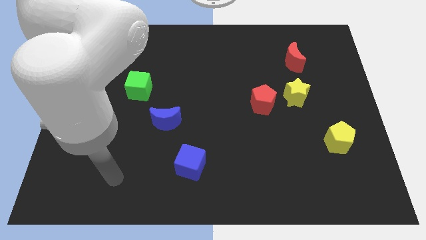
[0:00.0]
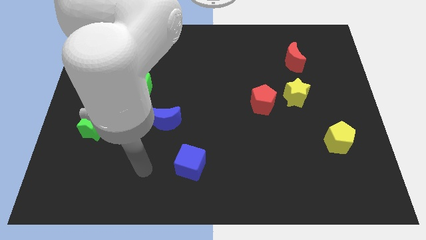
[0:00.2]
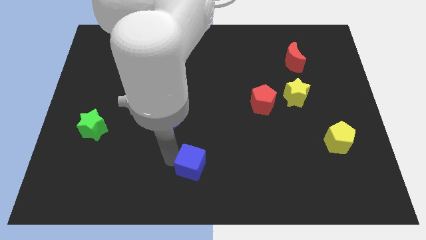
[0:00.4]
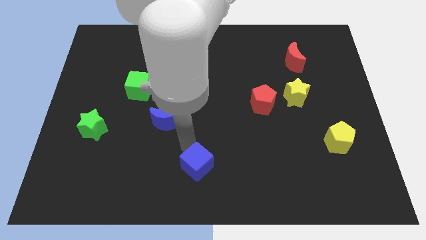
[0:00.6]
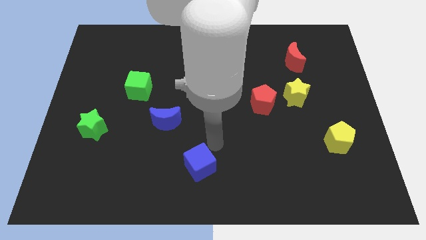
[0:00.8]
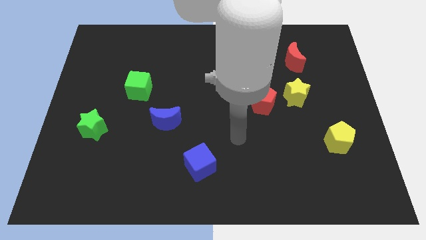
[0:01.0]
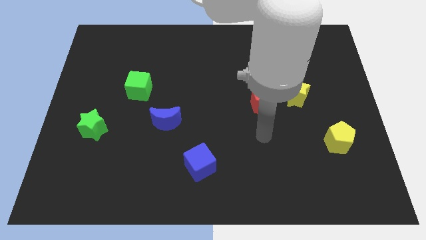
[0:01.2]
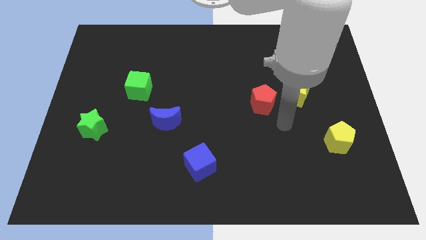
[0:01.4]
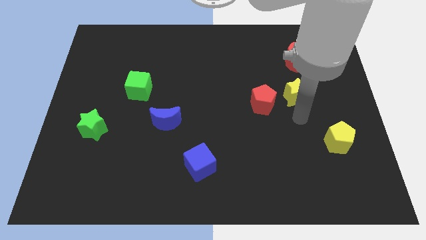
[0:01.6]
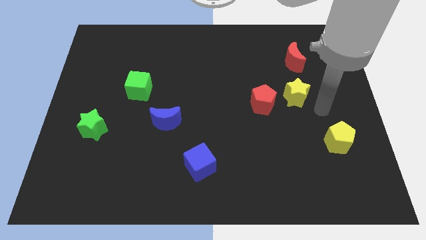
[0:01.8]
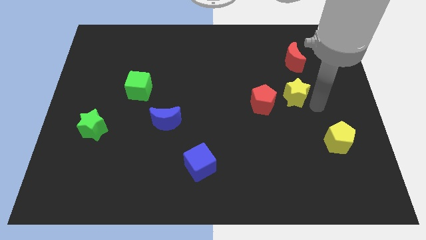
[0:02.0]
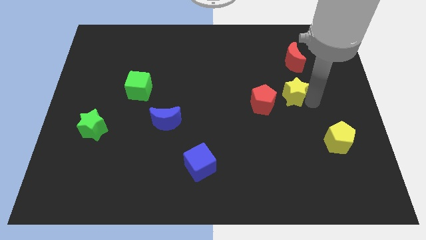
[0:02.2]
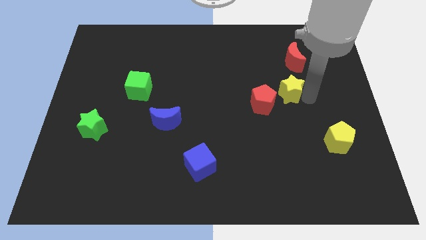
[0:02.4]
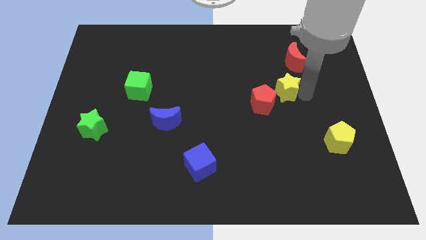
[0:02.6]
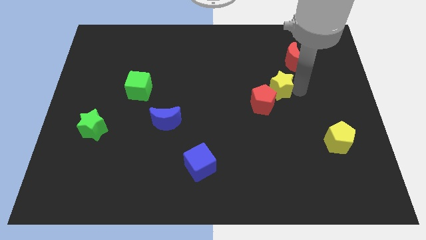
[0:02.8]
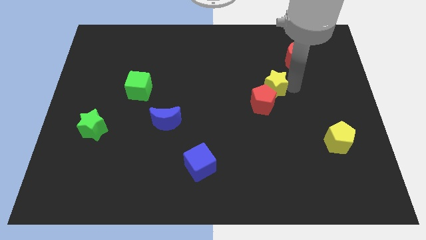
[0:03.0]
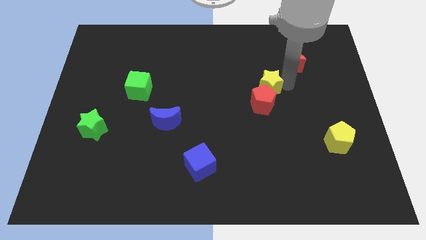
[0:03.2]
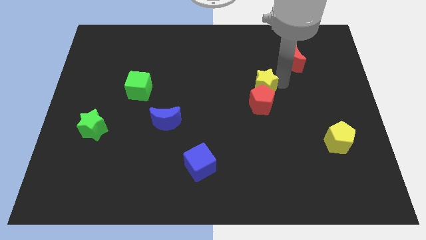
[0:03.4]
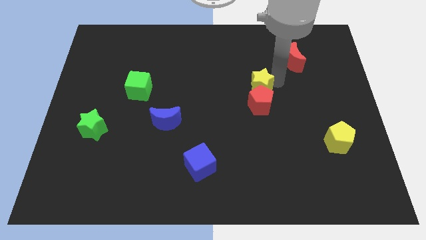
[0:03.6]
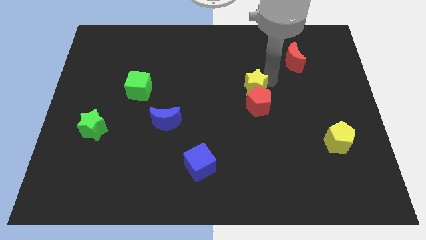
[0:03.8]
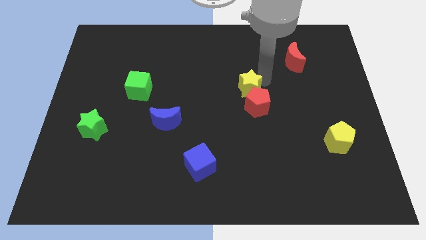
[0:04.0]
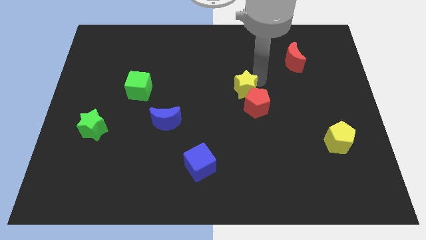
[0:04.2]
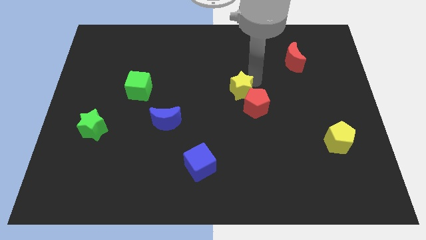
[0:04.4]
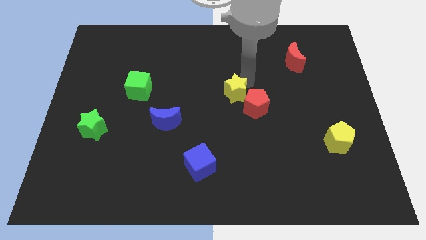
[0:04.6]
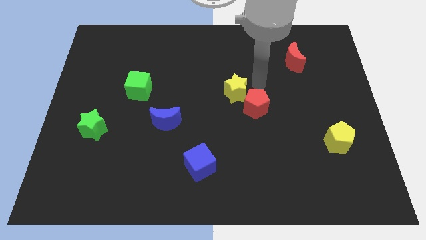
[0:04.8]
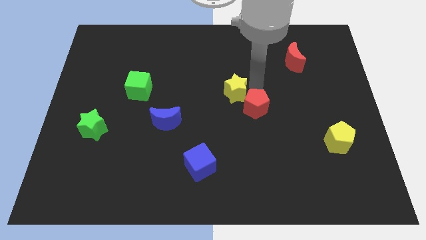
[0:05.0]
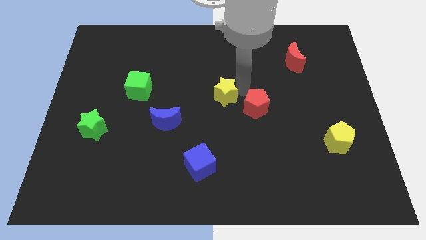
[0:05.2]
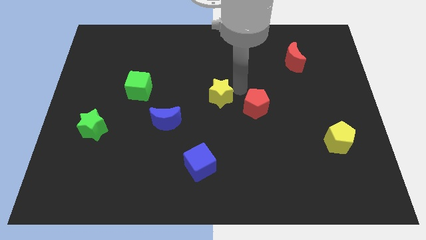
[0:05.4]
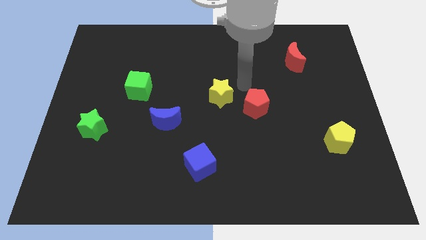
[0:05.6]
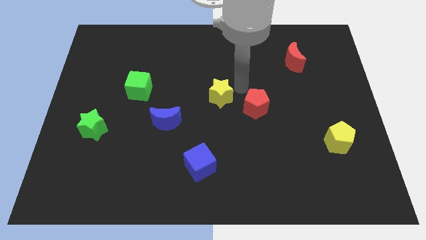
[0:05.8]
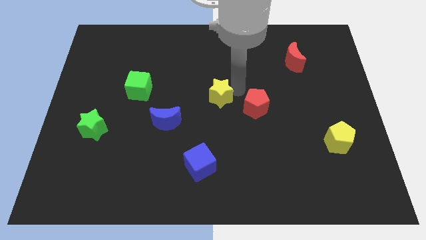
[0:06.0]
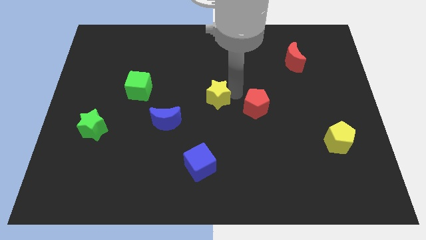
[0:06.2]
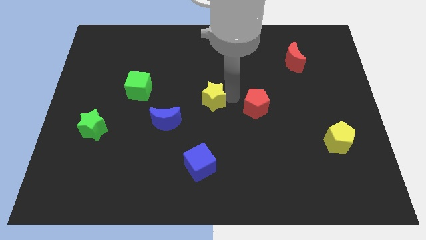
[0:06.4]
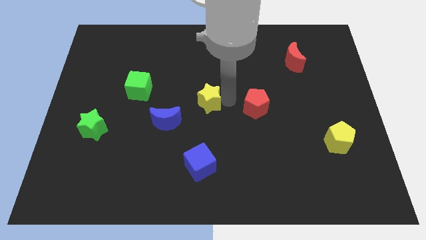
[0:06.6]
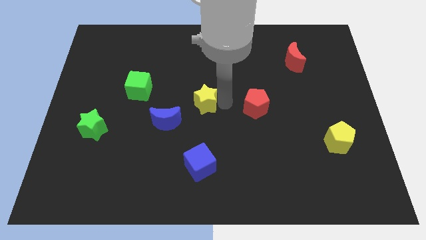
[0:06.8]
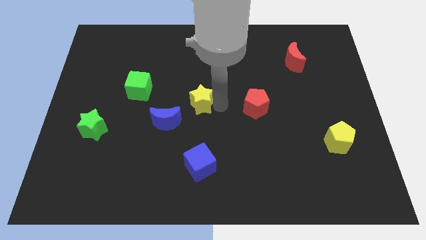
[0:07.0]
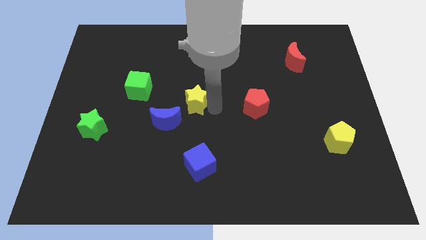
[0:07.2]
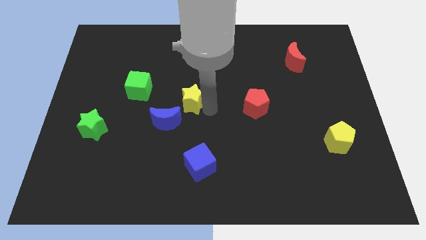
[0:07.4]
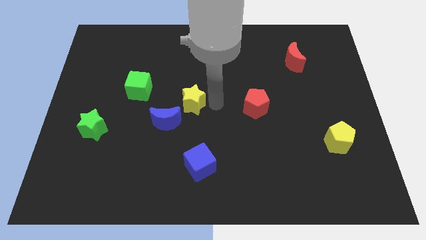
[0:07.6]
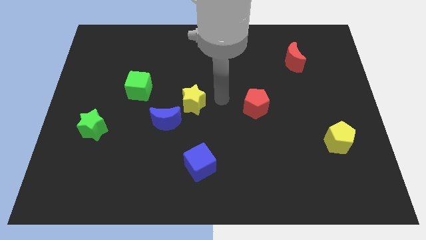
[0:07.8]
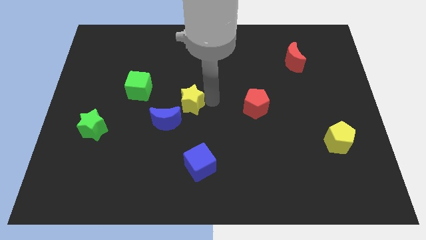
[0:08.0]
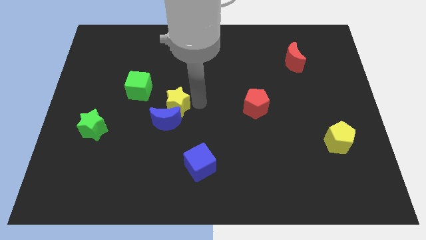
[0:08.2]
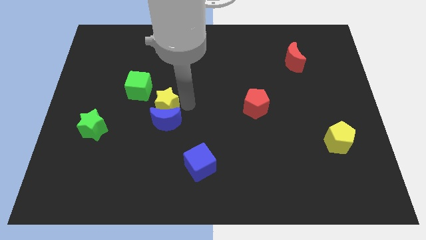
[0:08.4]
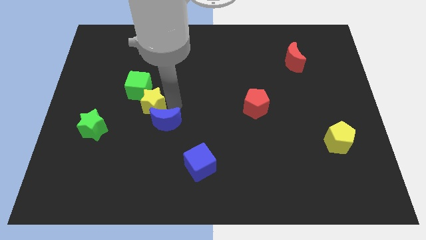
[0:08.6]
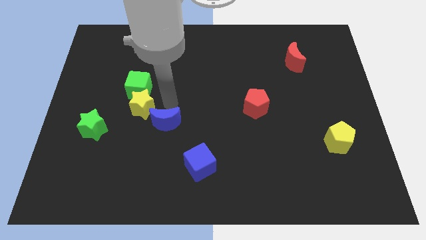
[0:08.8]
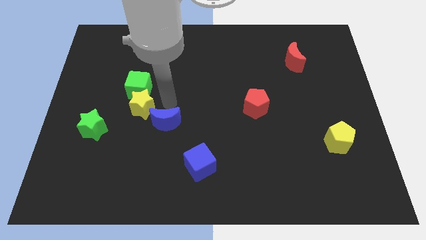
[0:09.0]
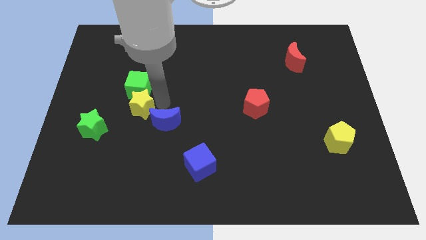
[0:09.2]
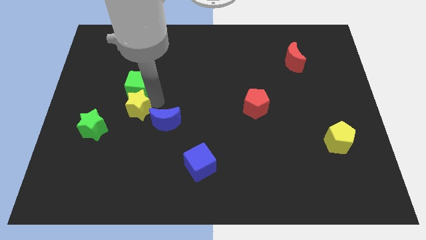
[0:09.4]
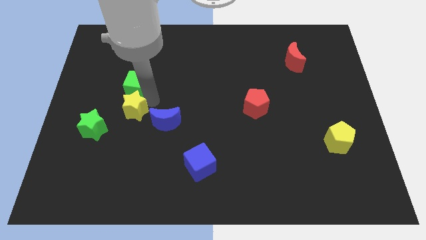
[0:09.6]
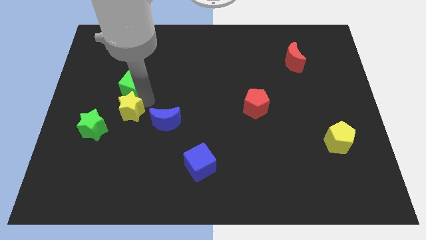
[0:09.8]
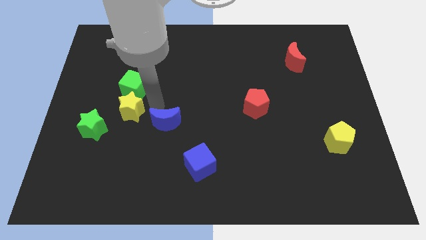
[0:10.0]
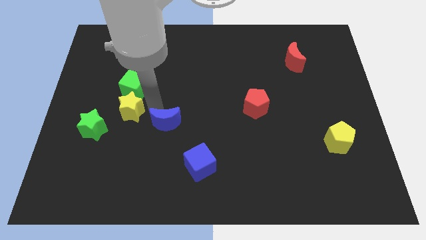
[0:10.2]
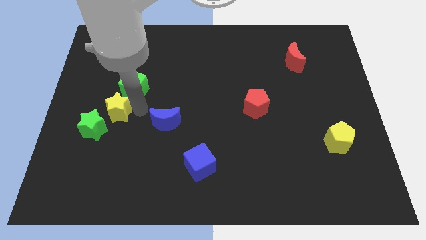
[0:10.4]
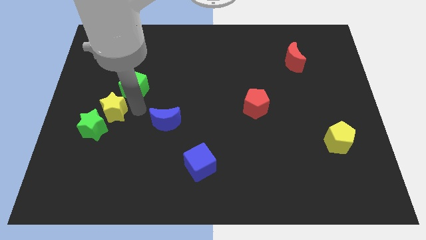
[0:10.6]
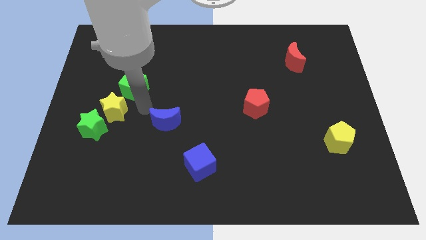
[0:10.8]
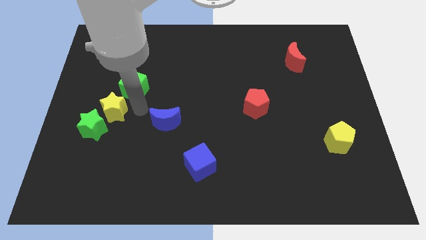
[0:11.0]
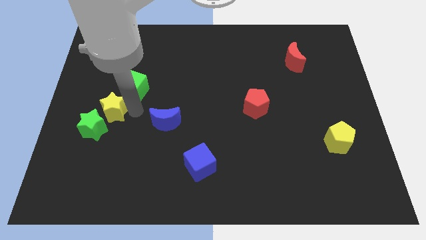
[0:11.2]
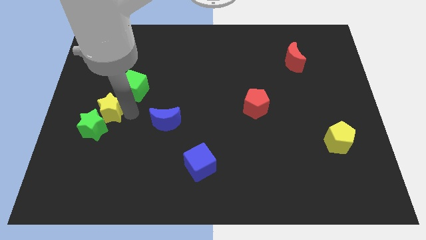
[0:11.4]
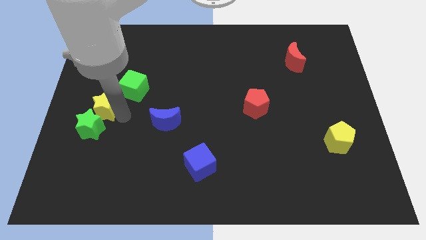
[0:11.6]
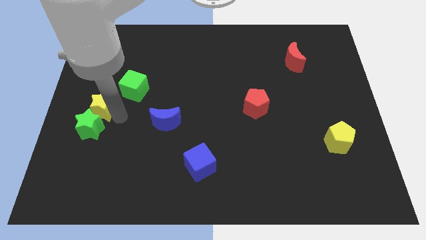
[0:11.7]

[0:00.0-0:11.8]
move the yellow star to the left side

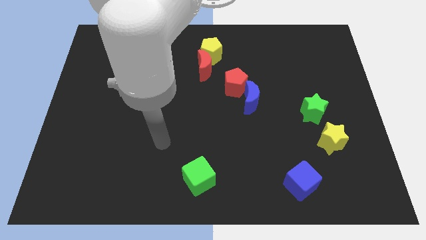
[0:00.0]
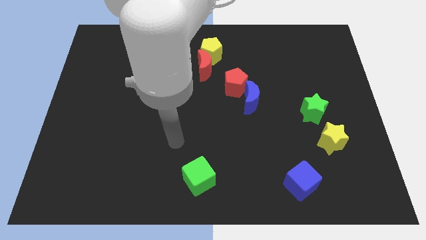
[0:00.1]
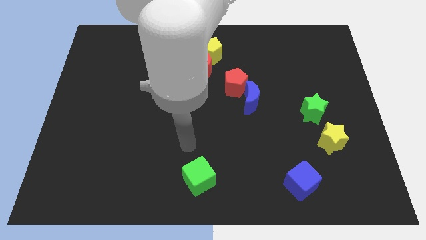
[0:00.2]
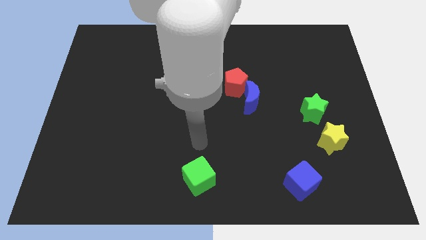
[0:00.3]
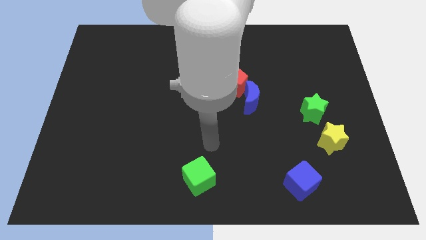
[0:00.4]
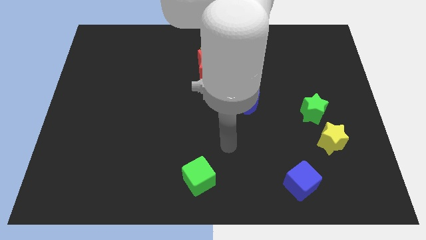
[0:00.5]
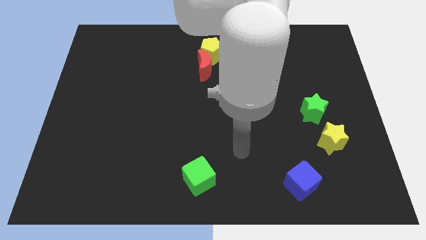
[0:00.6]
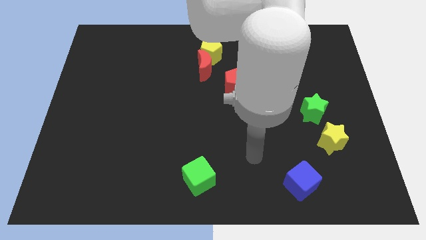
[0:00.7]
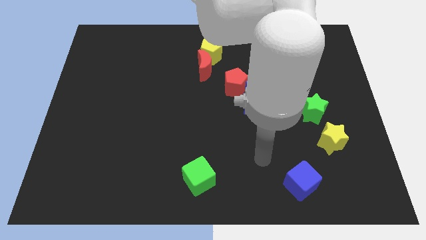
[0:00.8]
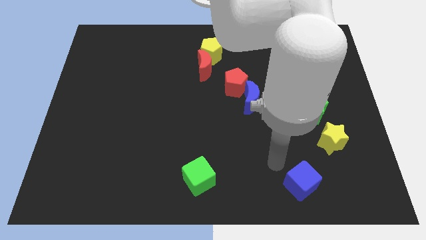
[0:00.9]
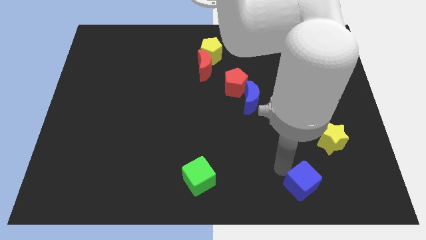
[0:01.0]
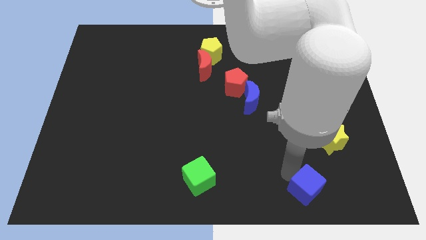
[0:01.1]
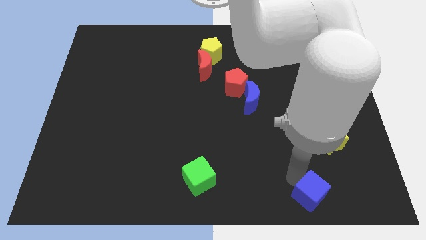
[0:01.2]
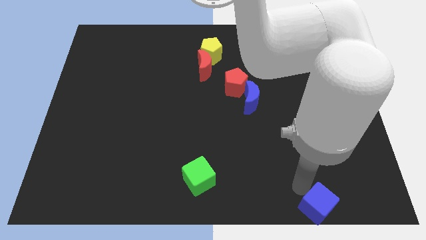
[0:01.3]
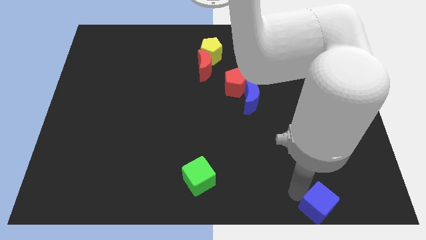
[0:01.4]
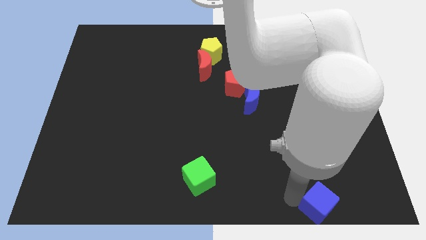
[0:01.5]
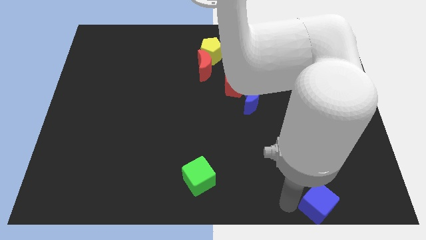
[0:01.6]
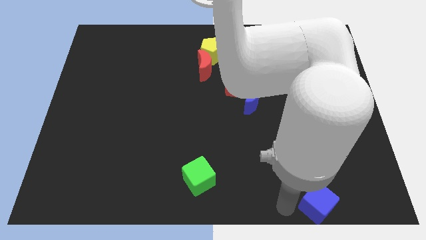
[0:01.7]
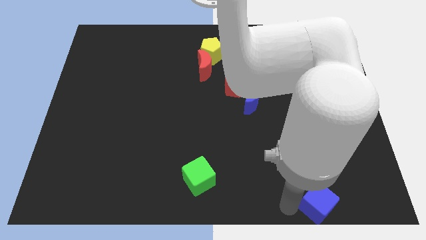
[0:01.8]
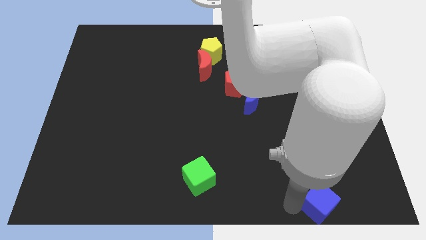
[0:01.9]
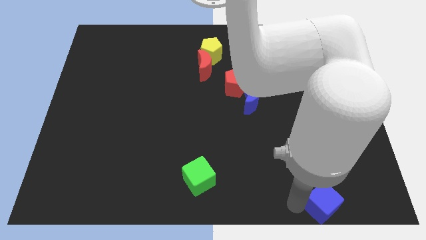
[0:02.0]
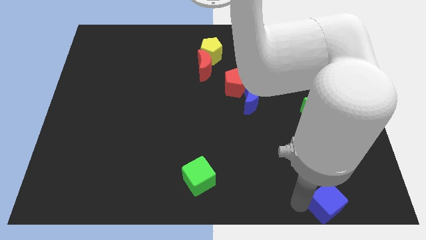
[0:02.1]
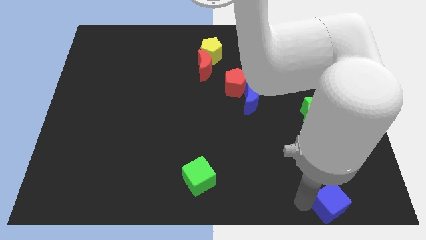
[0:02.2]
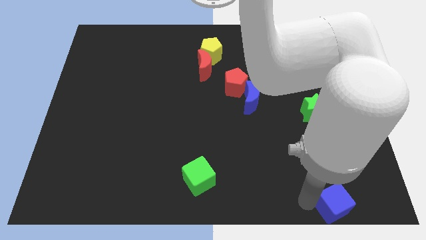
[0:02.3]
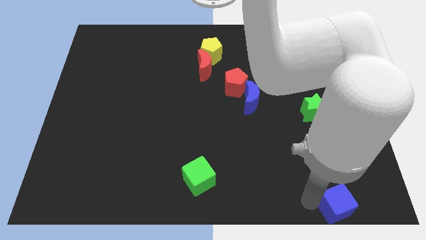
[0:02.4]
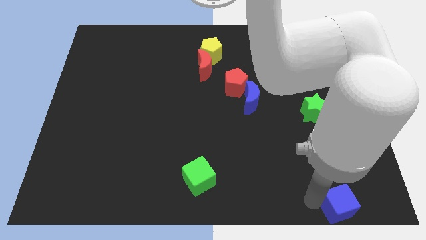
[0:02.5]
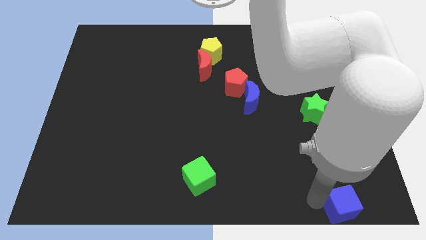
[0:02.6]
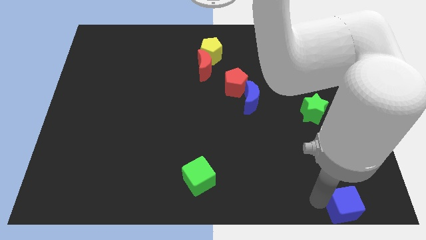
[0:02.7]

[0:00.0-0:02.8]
slide the blue cube to the bottom right
